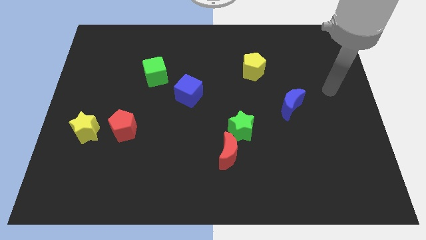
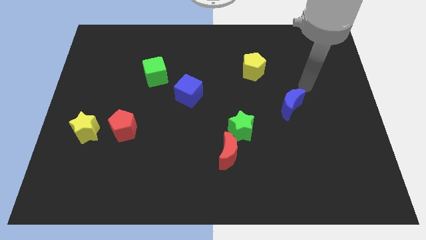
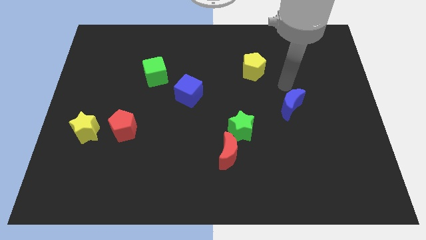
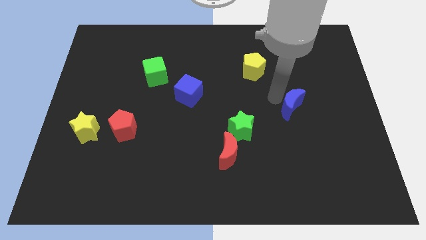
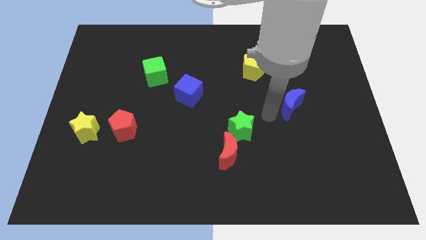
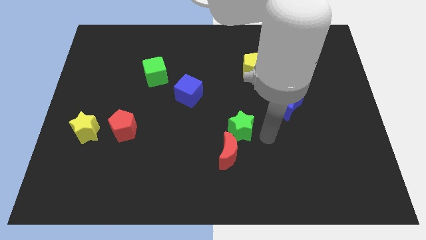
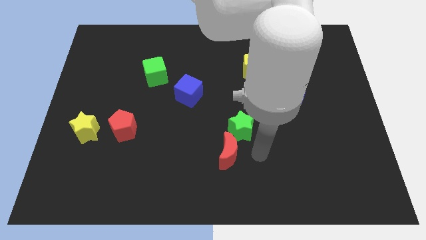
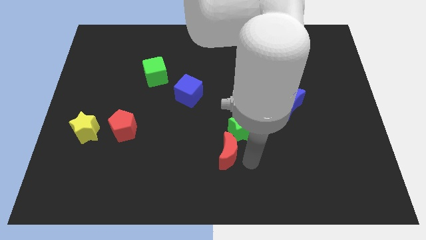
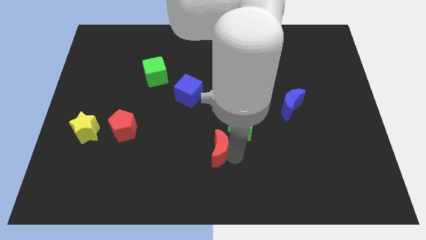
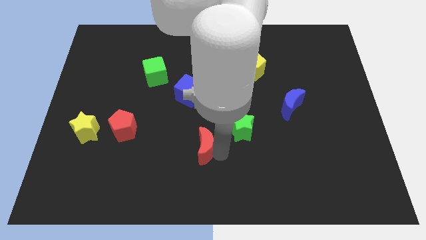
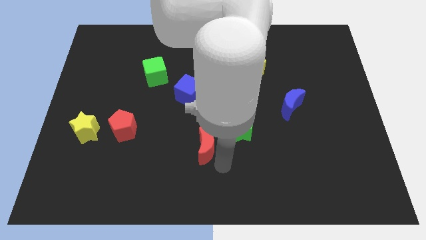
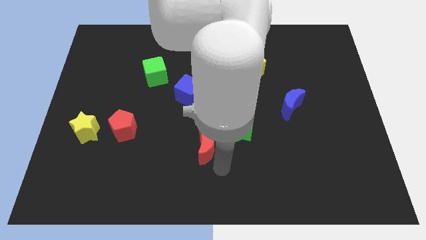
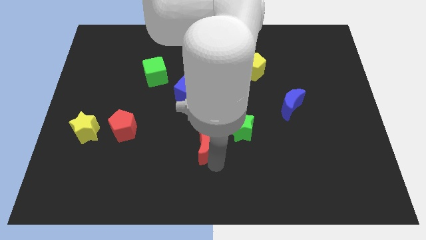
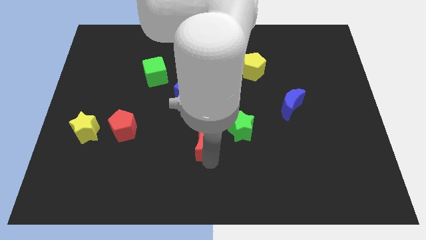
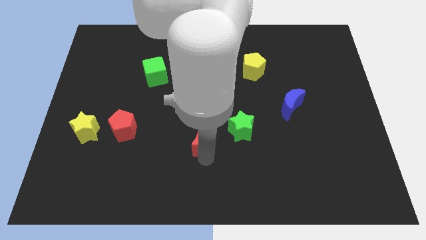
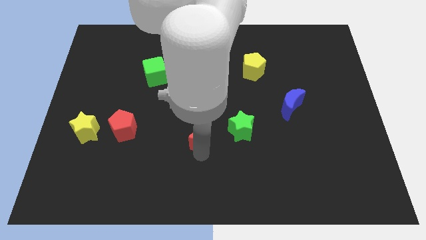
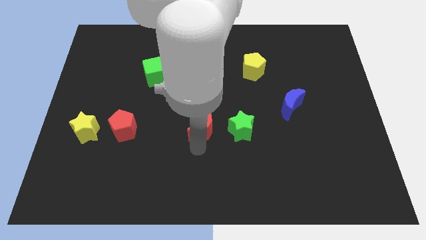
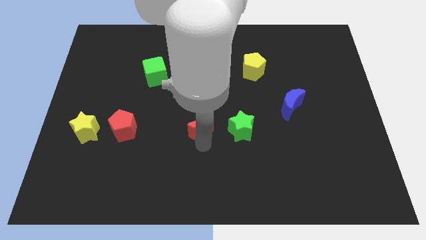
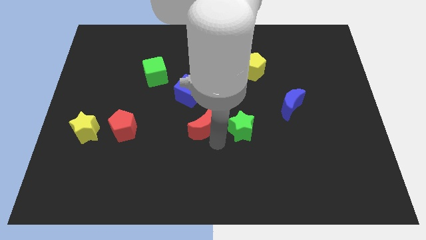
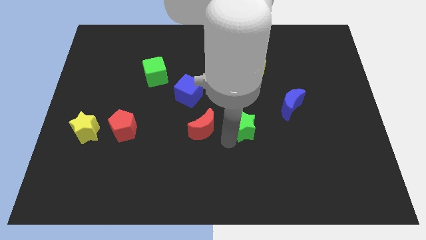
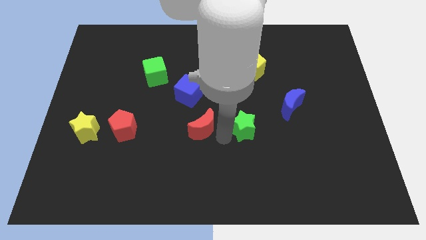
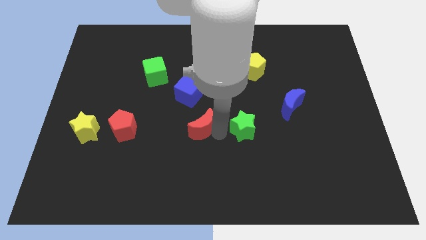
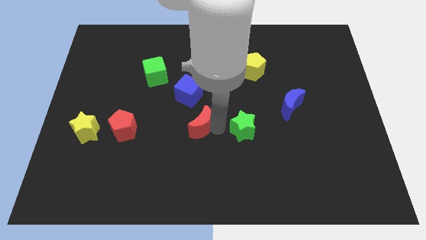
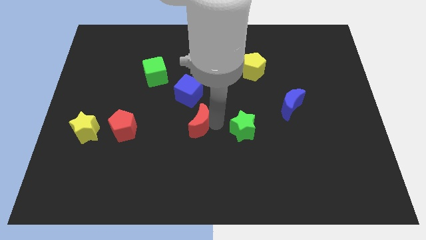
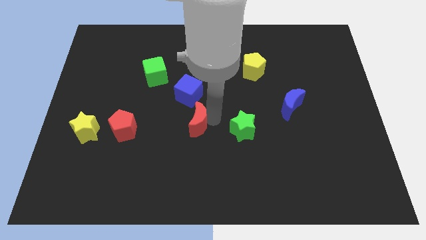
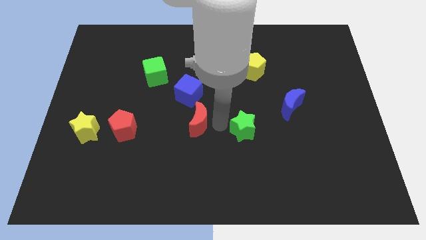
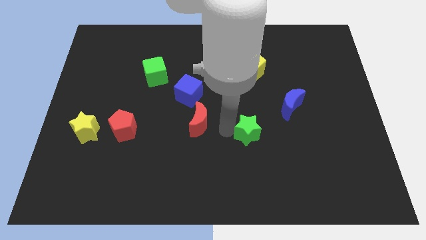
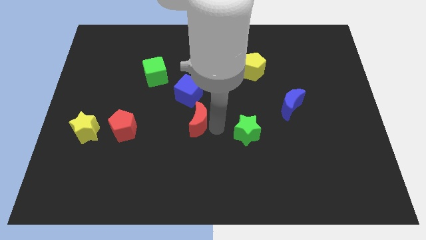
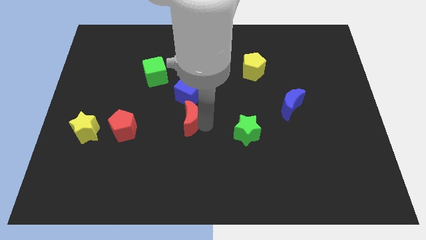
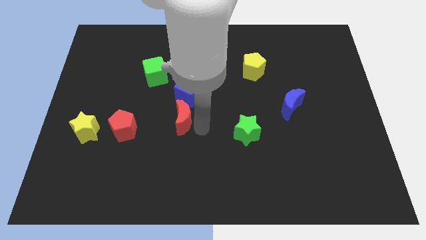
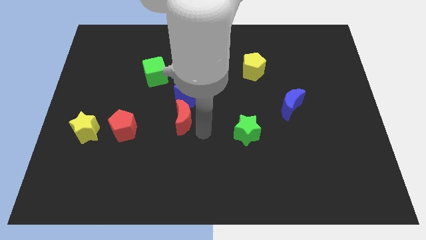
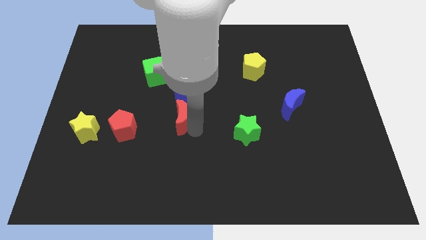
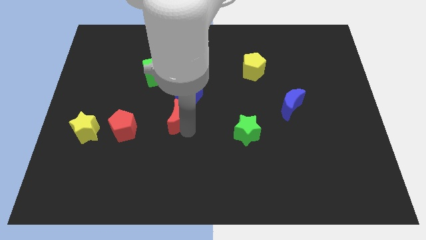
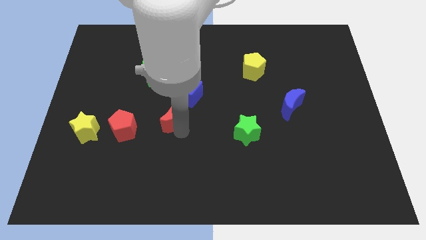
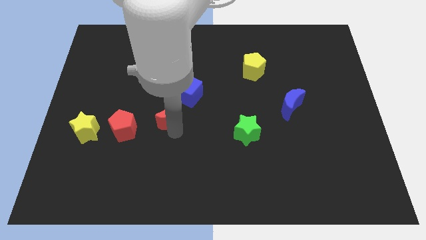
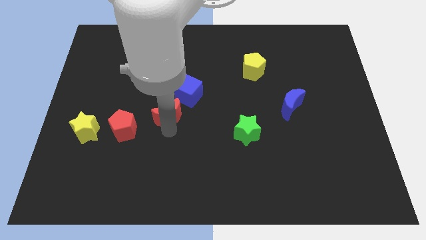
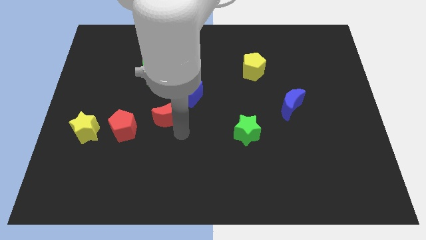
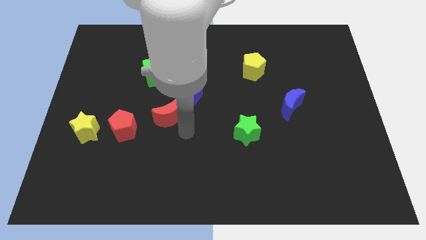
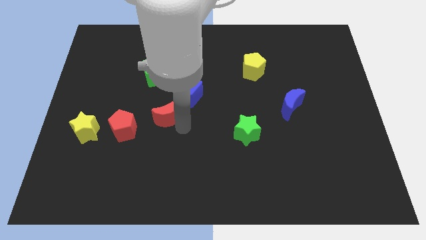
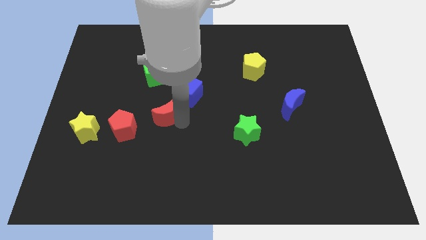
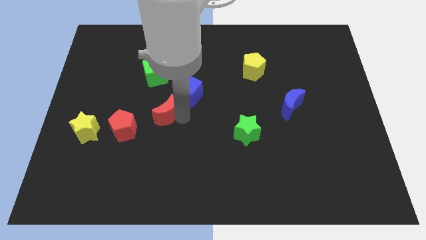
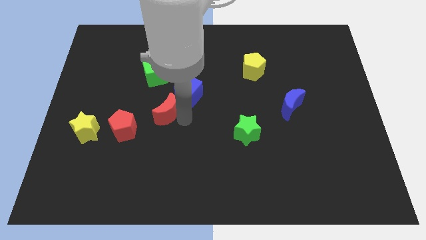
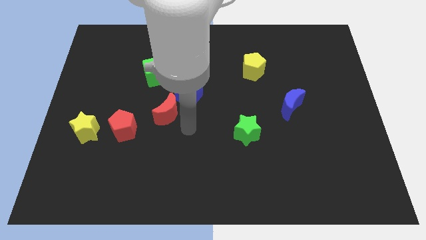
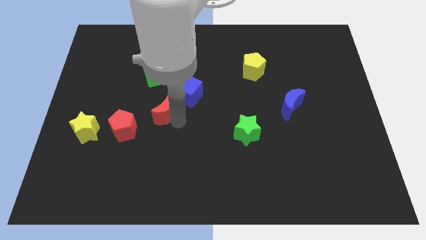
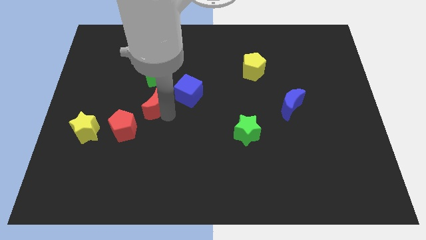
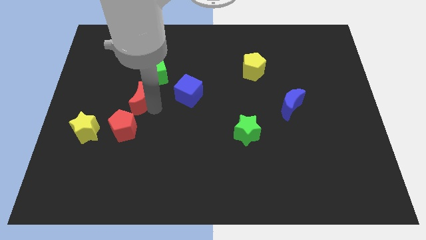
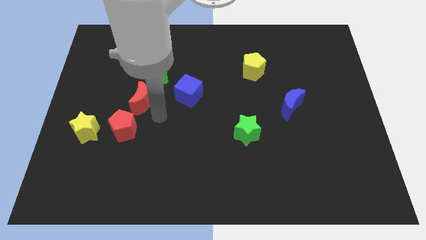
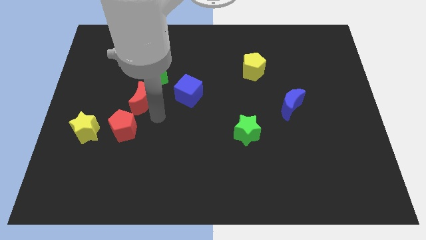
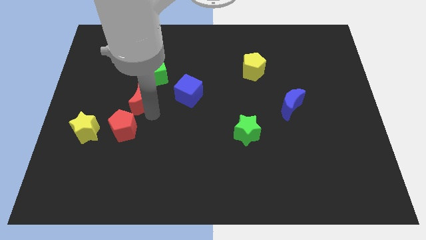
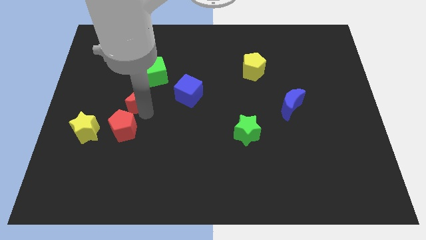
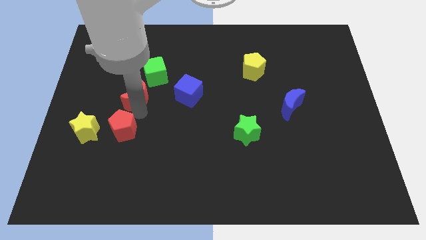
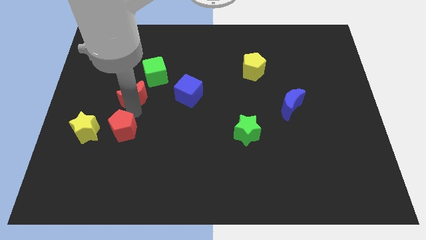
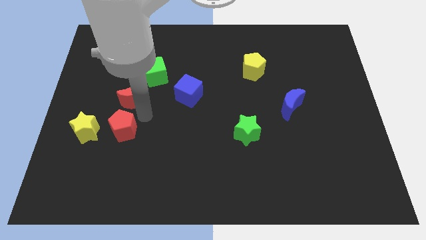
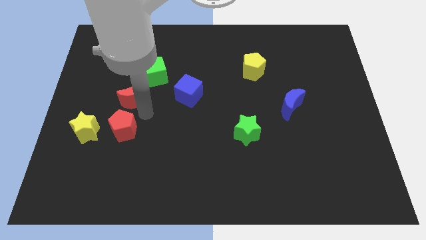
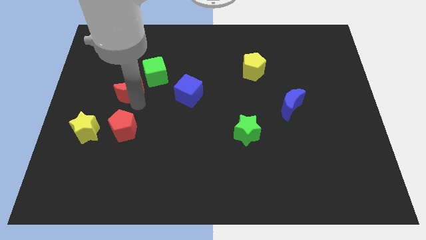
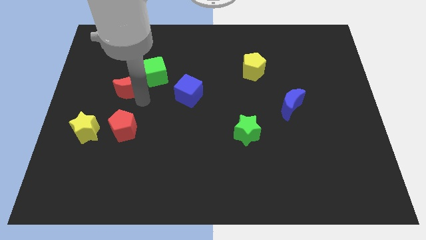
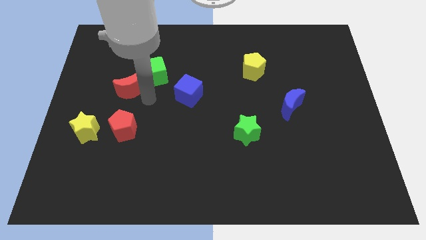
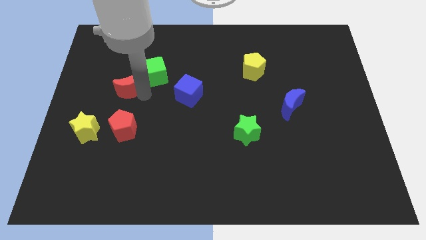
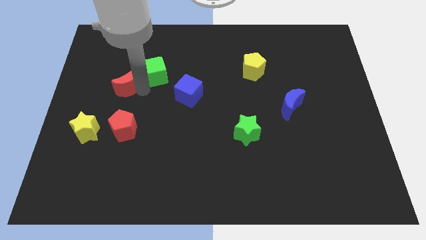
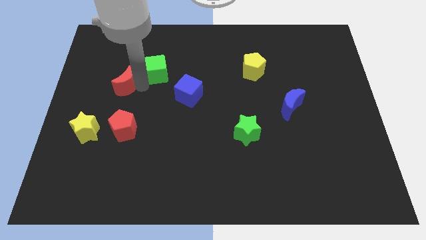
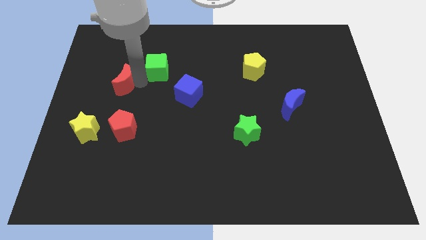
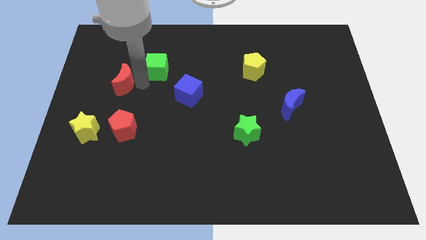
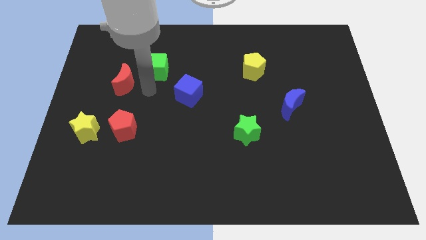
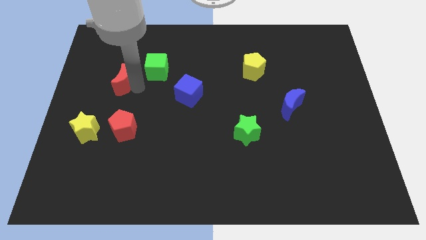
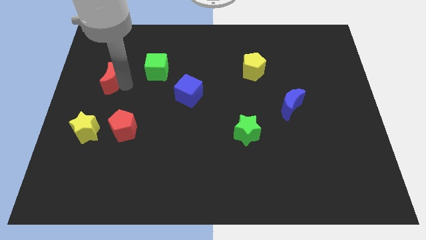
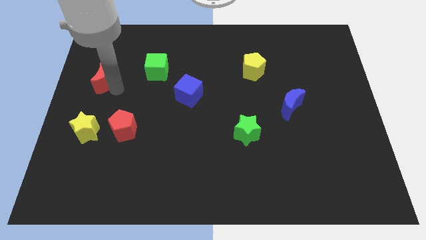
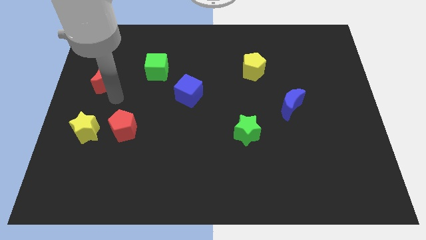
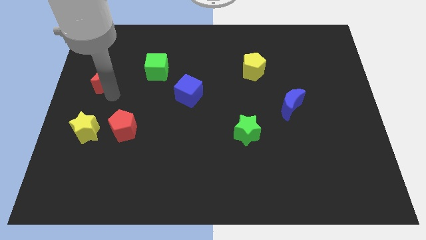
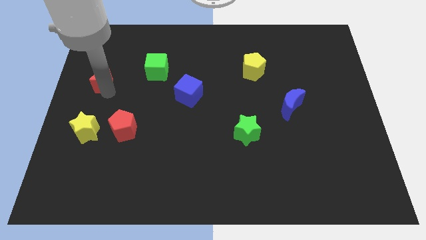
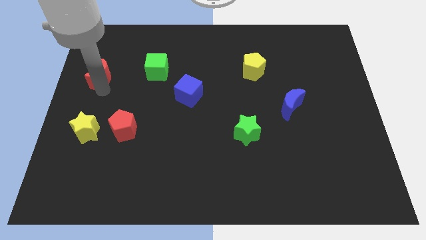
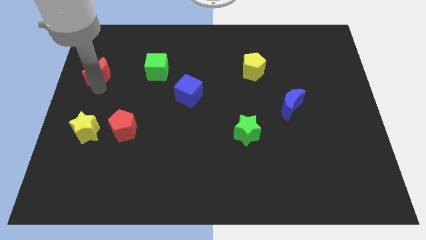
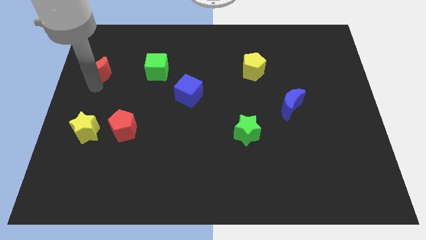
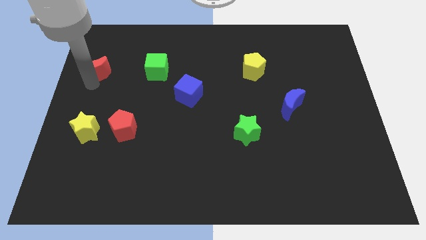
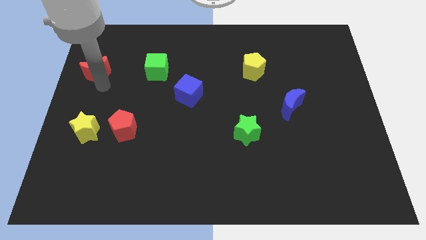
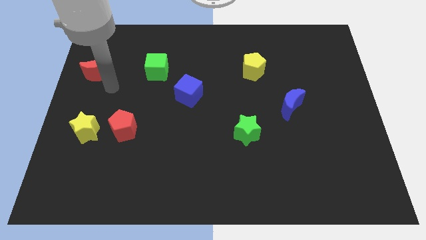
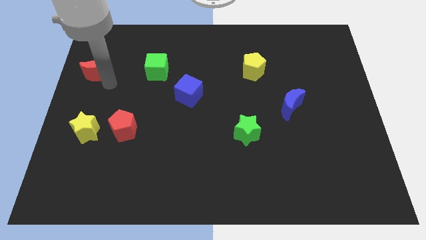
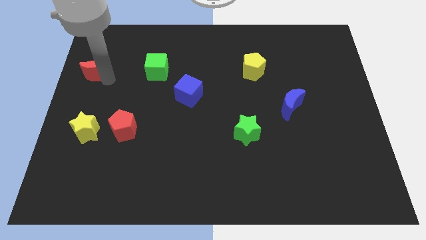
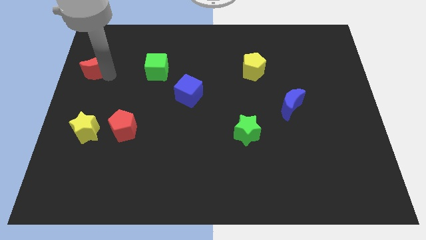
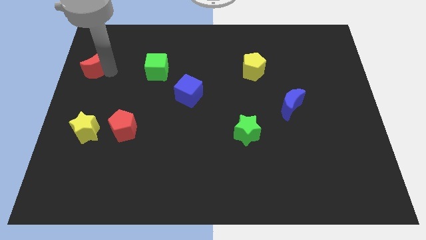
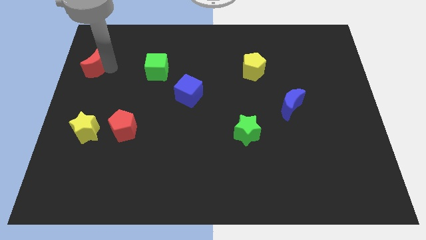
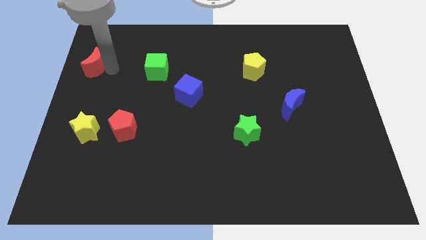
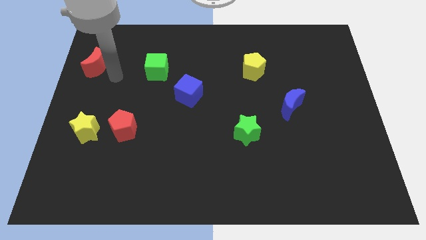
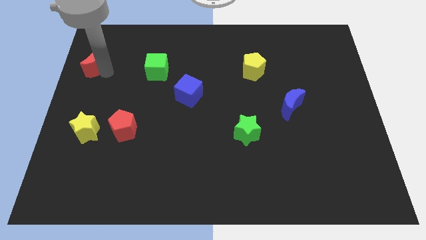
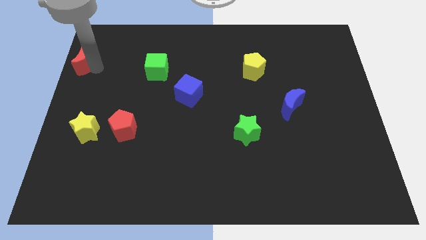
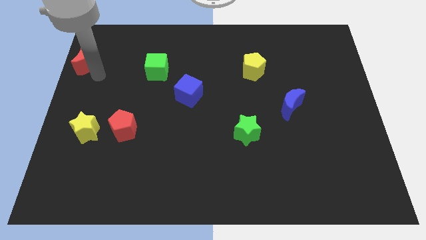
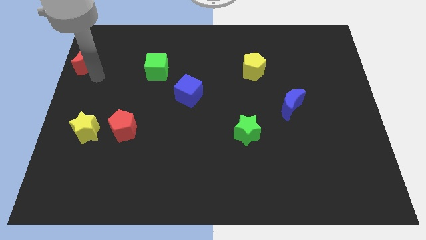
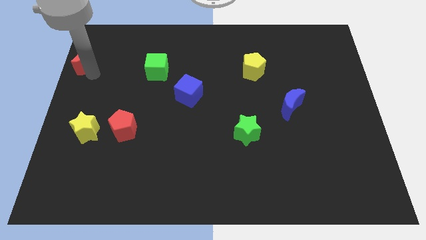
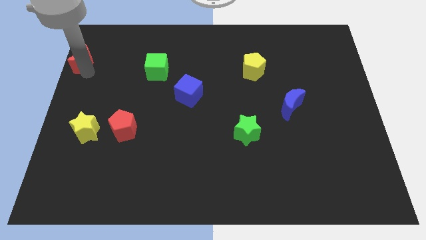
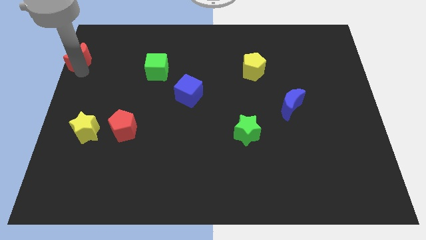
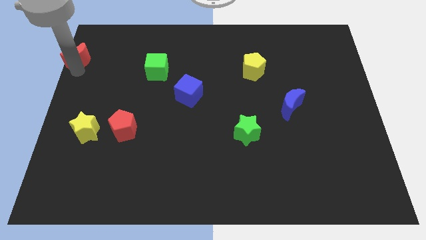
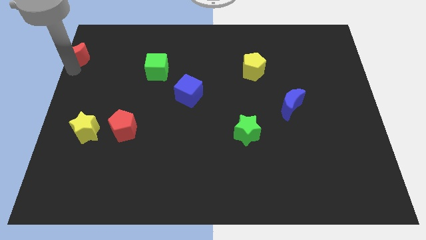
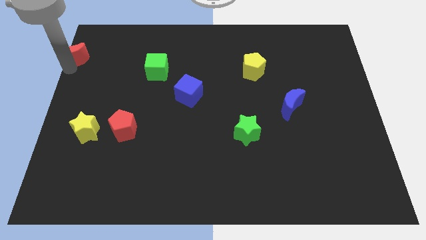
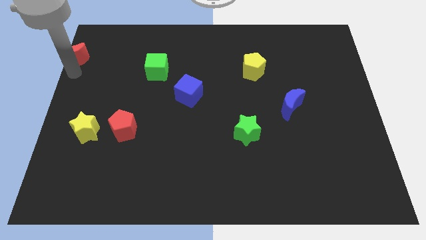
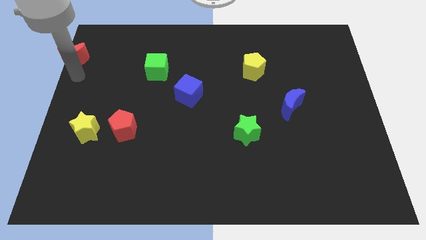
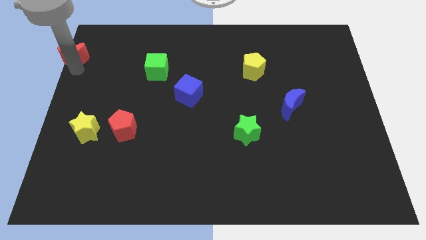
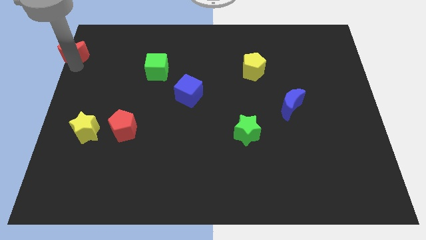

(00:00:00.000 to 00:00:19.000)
slide the red moon to the top left
